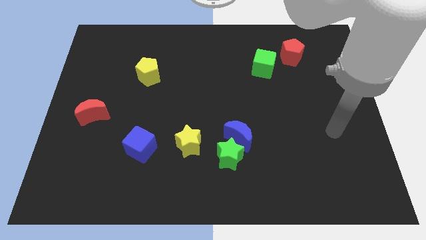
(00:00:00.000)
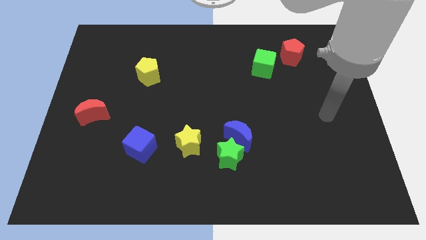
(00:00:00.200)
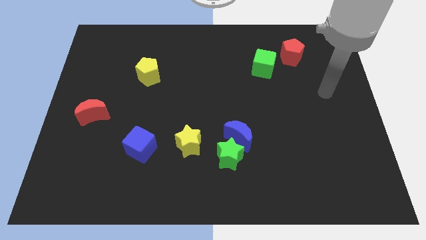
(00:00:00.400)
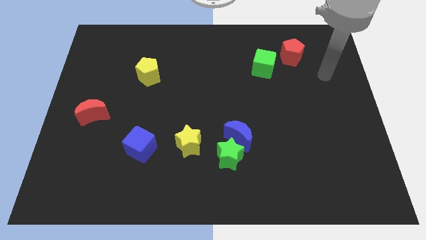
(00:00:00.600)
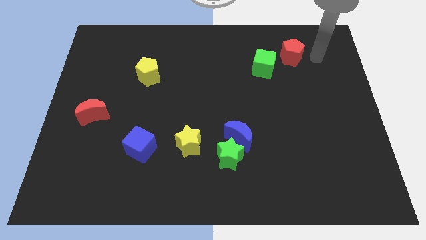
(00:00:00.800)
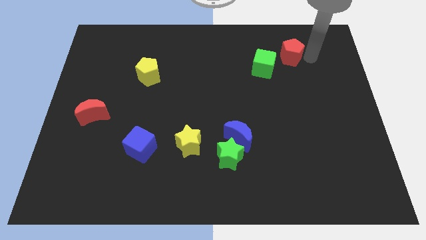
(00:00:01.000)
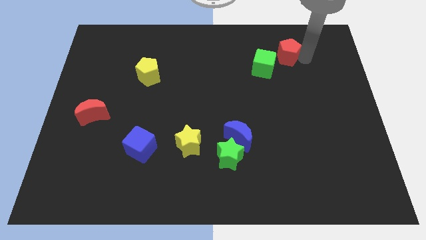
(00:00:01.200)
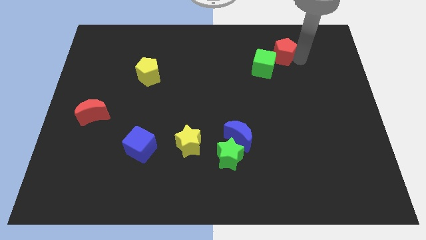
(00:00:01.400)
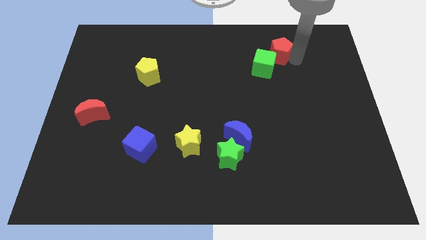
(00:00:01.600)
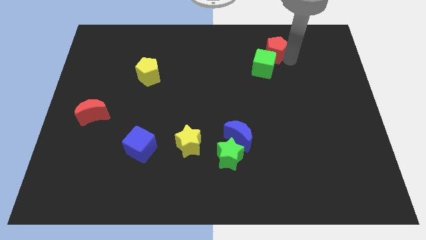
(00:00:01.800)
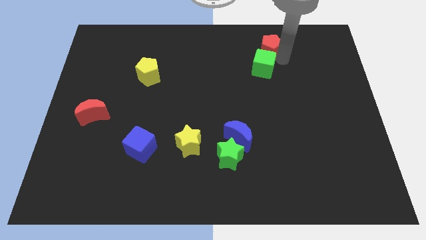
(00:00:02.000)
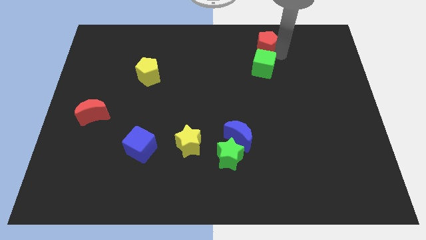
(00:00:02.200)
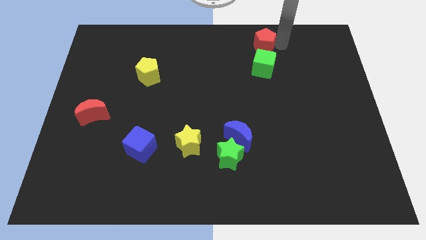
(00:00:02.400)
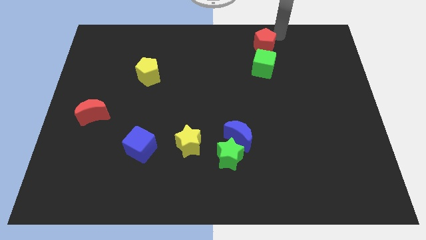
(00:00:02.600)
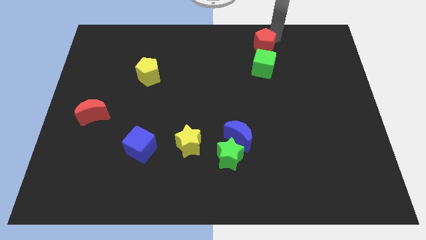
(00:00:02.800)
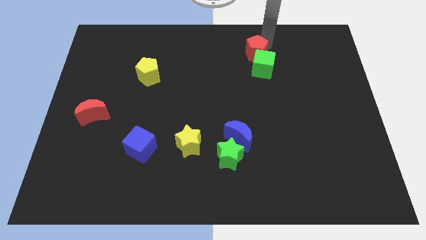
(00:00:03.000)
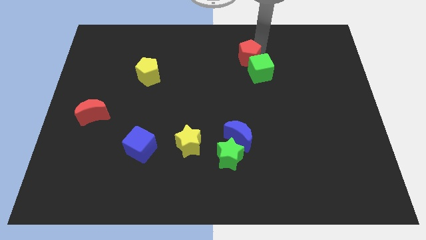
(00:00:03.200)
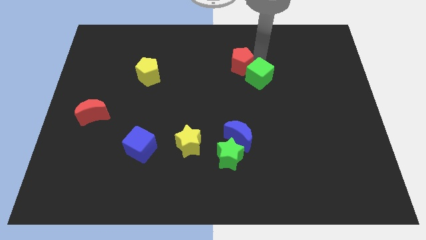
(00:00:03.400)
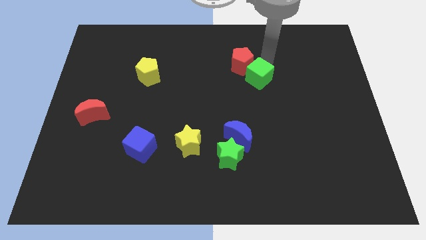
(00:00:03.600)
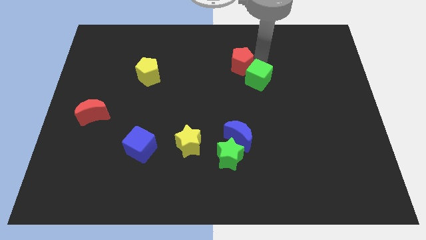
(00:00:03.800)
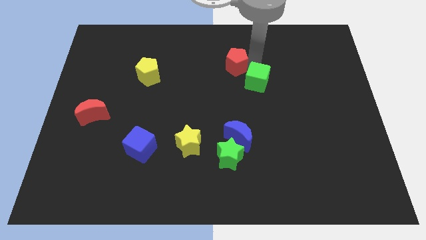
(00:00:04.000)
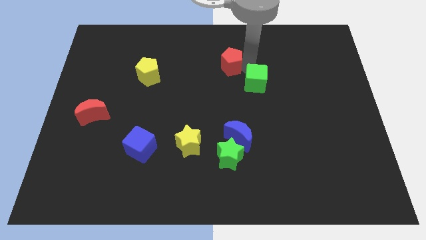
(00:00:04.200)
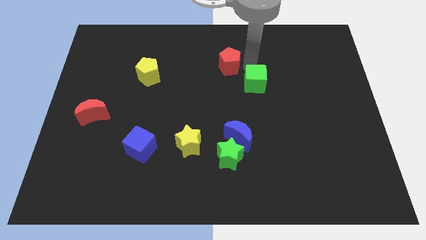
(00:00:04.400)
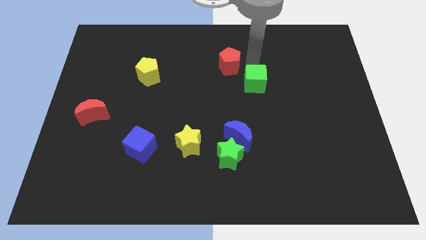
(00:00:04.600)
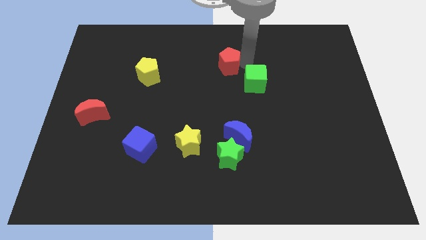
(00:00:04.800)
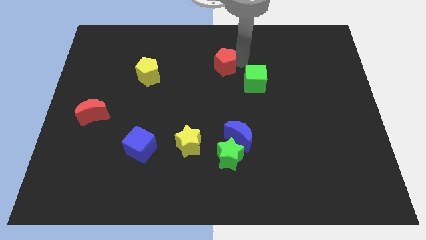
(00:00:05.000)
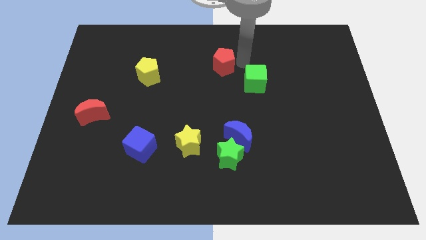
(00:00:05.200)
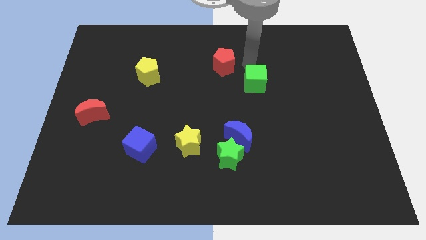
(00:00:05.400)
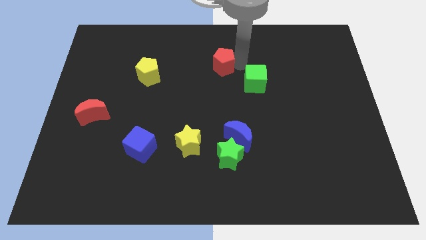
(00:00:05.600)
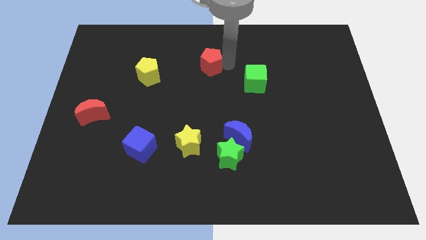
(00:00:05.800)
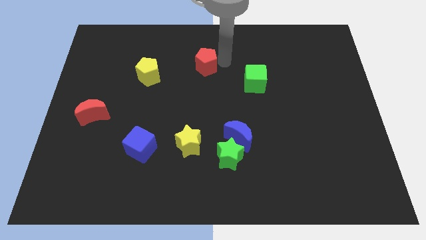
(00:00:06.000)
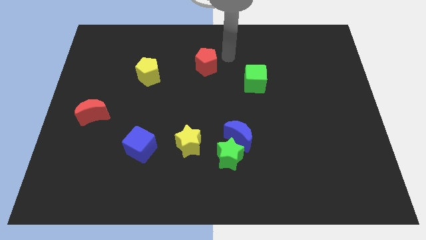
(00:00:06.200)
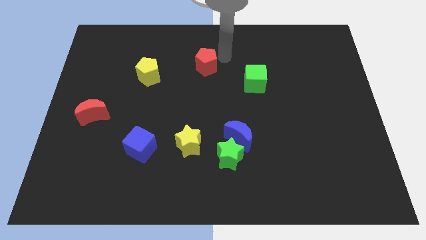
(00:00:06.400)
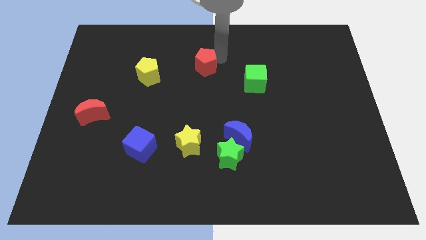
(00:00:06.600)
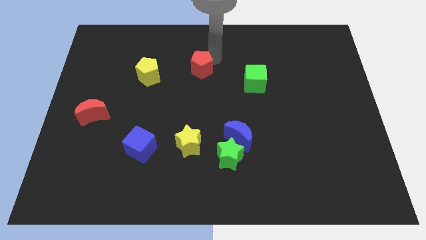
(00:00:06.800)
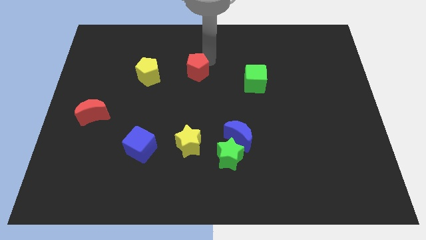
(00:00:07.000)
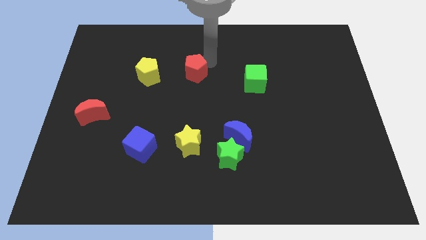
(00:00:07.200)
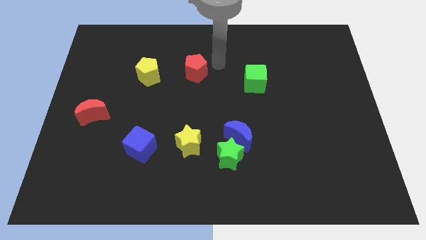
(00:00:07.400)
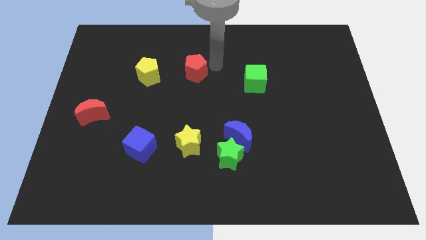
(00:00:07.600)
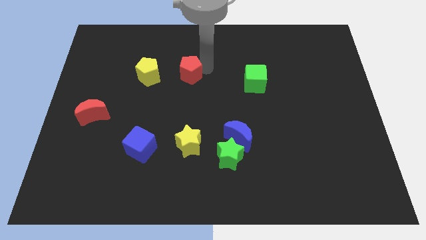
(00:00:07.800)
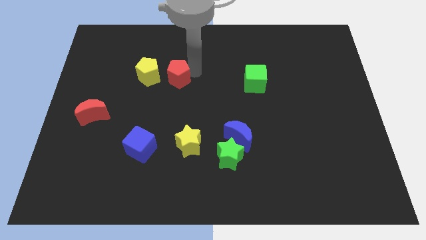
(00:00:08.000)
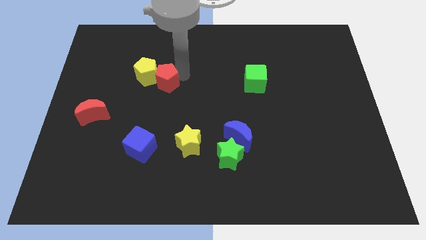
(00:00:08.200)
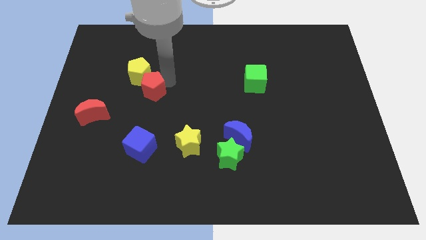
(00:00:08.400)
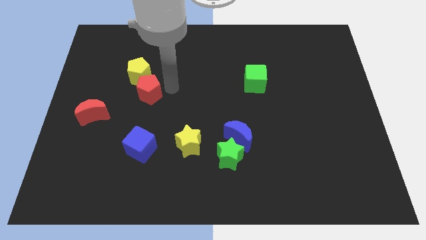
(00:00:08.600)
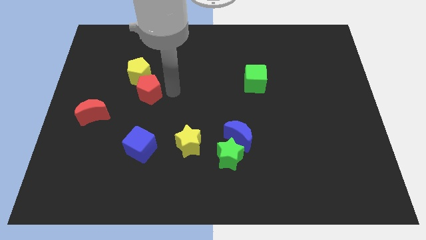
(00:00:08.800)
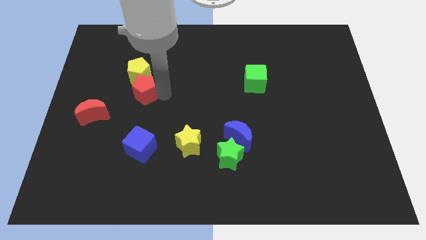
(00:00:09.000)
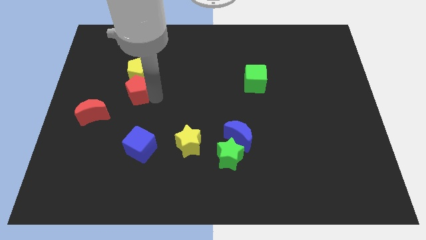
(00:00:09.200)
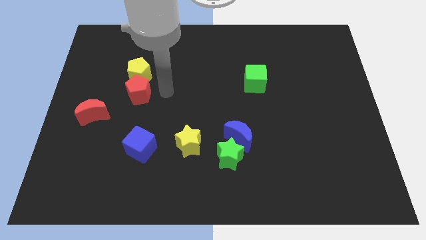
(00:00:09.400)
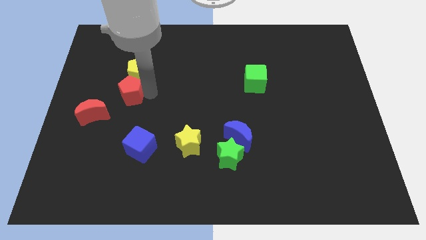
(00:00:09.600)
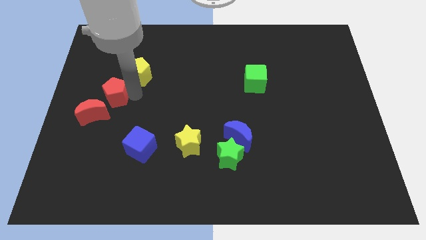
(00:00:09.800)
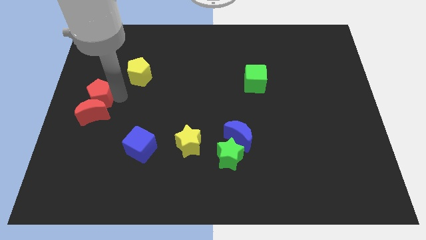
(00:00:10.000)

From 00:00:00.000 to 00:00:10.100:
slide the red pentagon to the left side of the board
